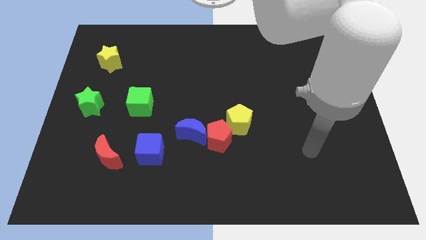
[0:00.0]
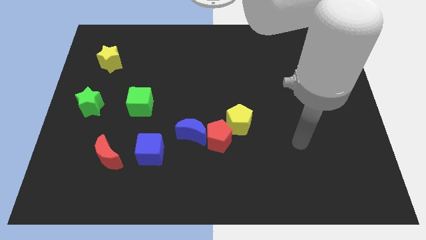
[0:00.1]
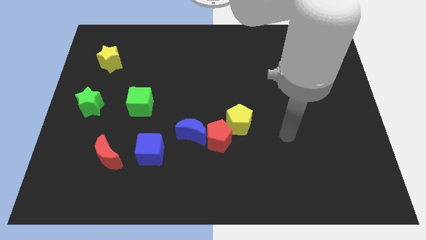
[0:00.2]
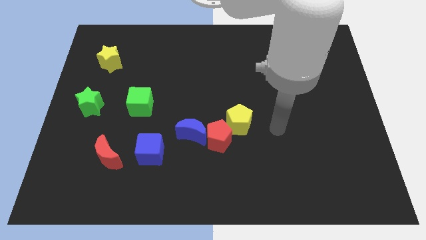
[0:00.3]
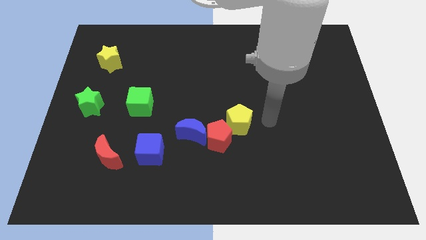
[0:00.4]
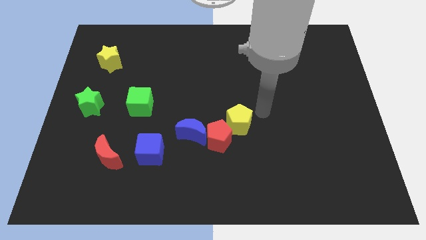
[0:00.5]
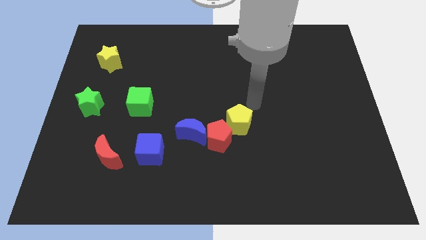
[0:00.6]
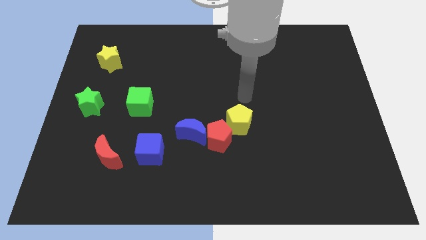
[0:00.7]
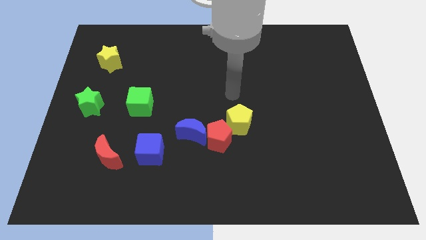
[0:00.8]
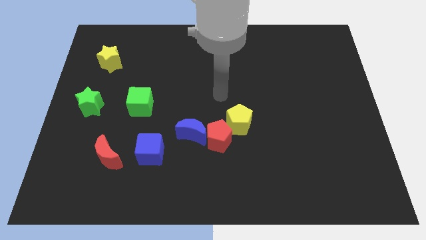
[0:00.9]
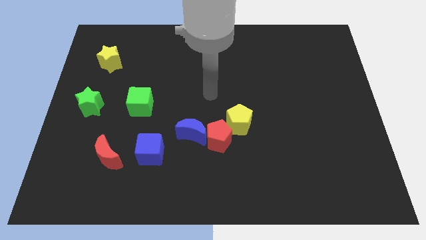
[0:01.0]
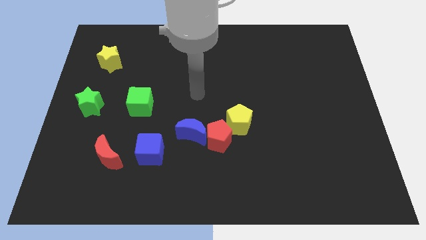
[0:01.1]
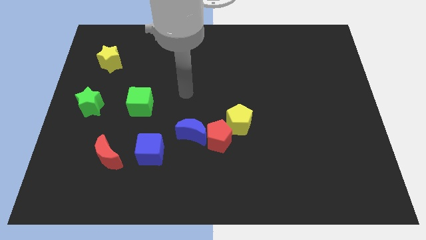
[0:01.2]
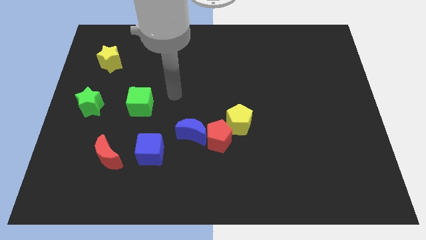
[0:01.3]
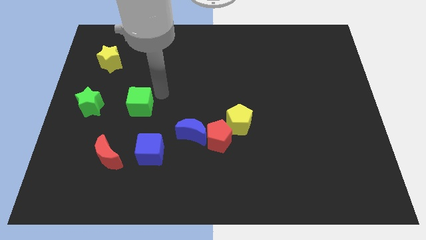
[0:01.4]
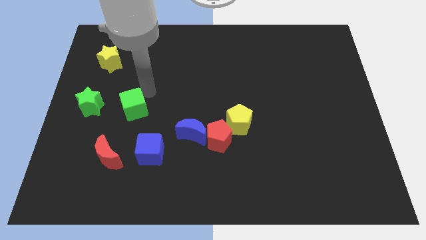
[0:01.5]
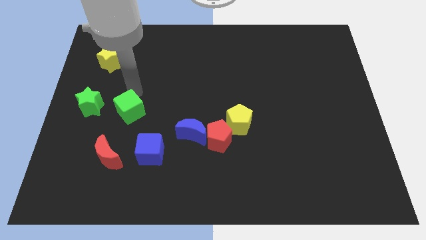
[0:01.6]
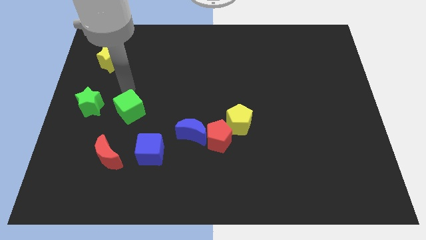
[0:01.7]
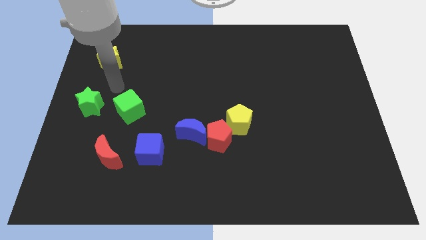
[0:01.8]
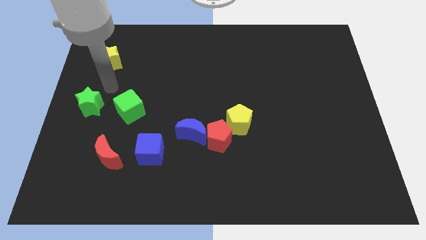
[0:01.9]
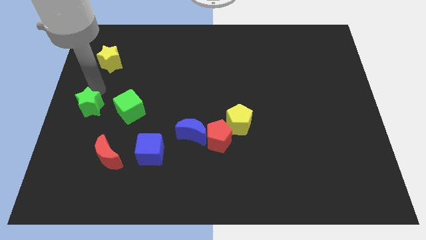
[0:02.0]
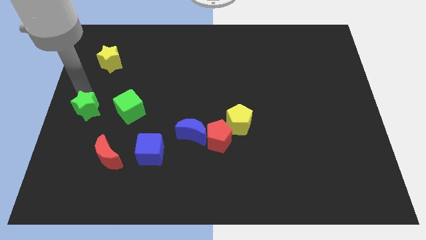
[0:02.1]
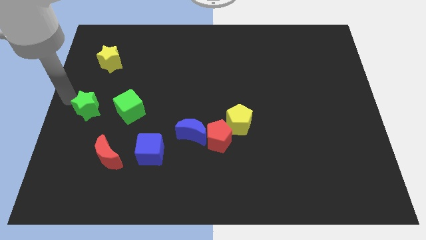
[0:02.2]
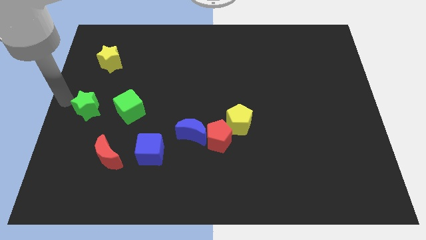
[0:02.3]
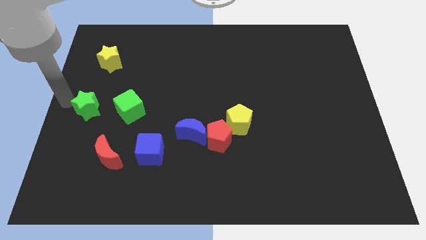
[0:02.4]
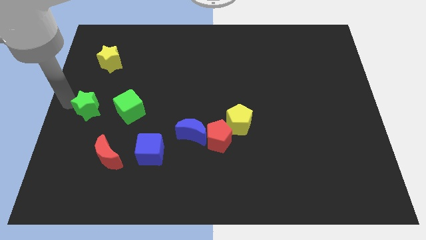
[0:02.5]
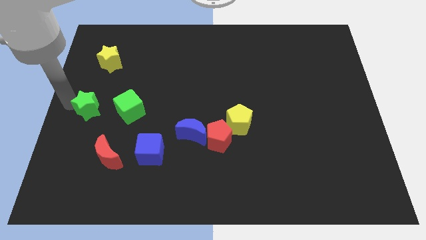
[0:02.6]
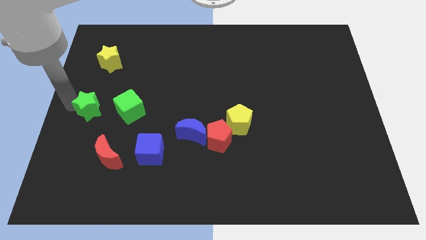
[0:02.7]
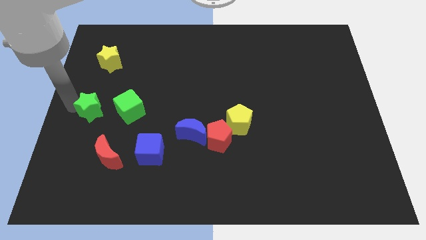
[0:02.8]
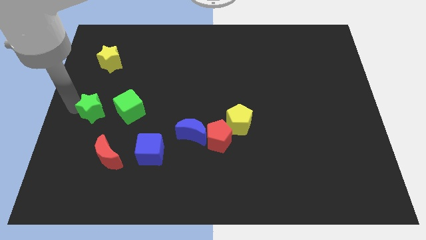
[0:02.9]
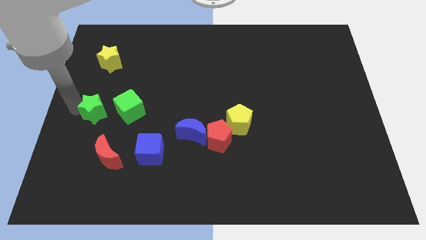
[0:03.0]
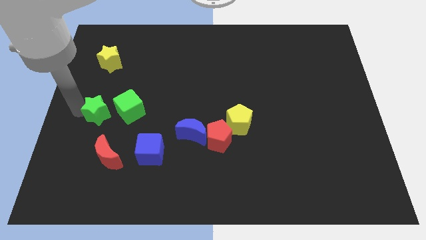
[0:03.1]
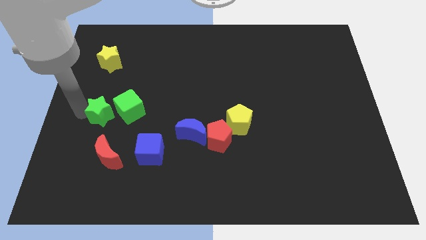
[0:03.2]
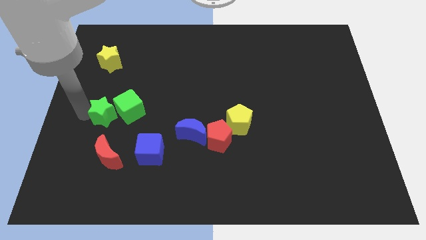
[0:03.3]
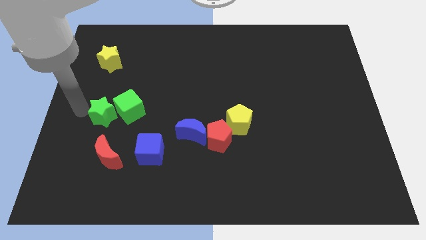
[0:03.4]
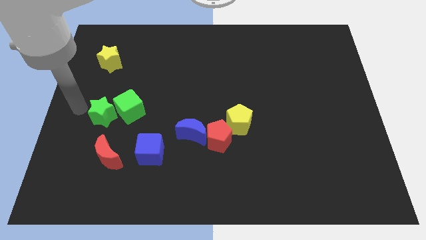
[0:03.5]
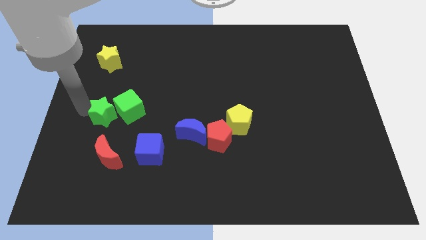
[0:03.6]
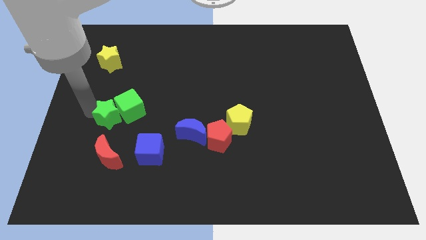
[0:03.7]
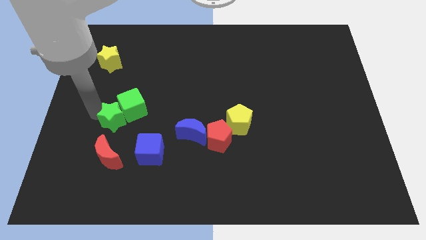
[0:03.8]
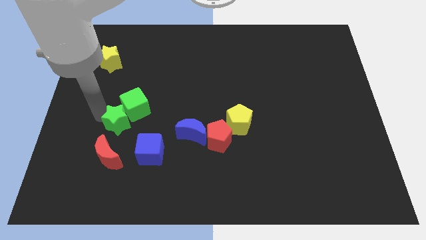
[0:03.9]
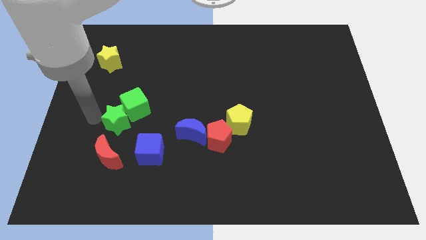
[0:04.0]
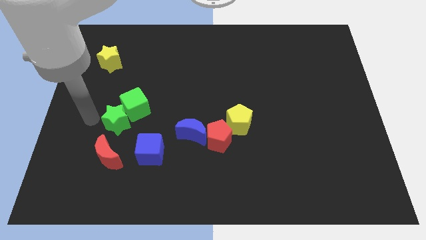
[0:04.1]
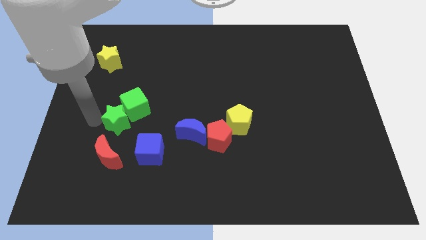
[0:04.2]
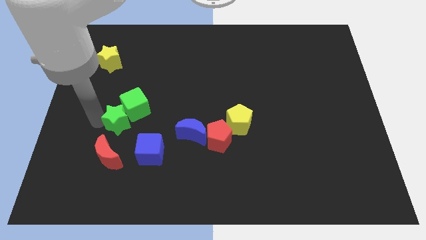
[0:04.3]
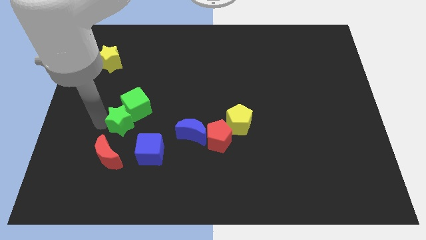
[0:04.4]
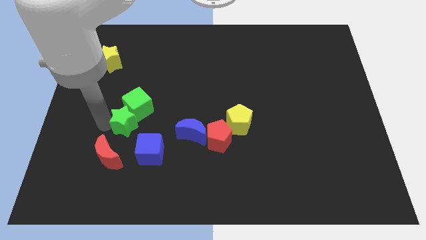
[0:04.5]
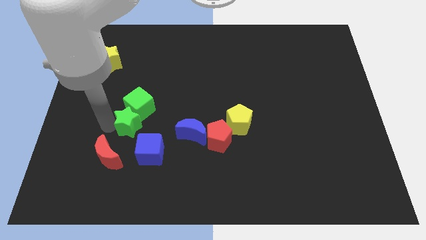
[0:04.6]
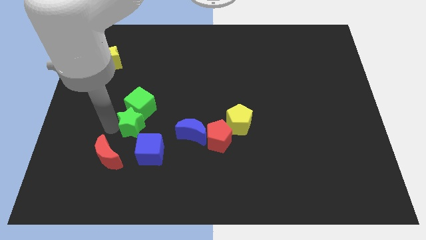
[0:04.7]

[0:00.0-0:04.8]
slide the green star to the bottom right of the green cube

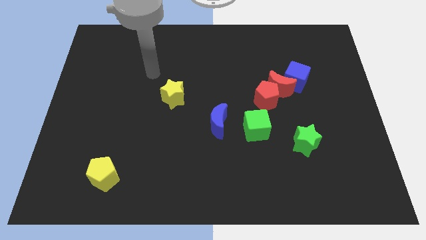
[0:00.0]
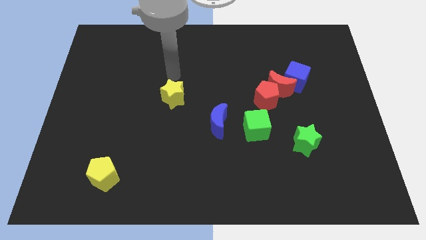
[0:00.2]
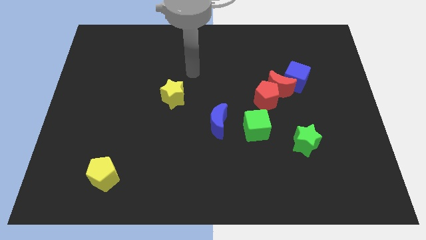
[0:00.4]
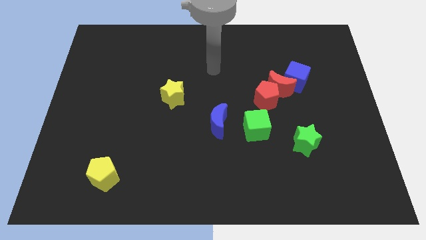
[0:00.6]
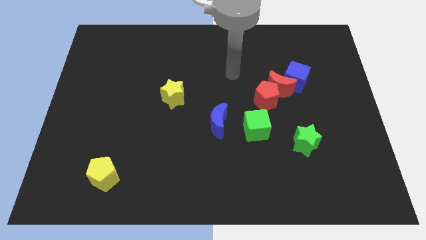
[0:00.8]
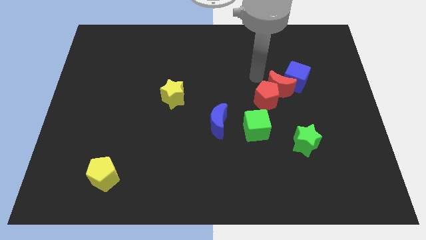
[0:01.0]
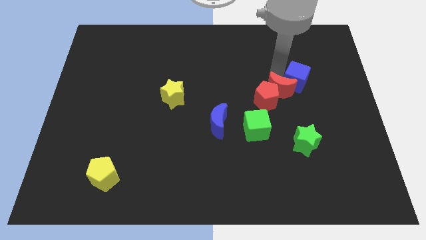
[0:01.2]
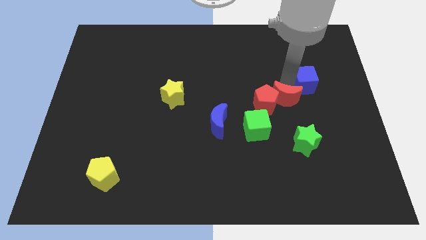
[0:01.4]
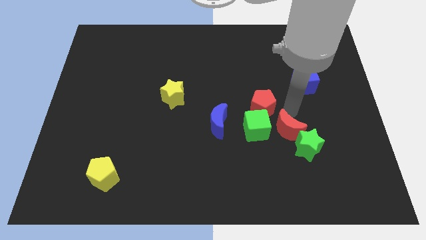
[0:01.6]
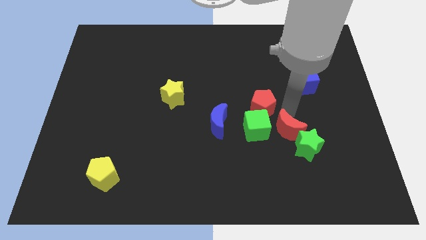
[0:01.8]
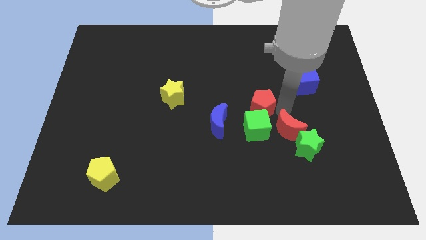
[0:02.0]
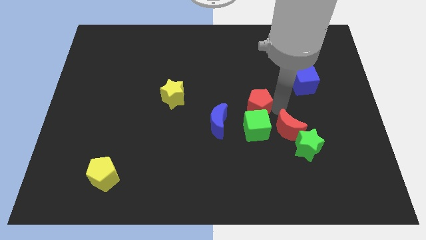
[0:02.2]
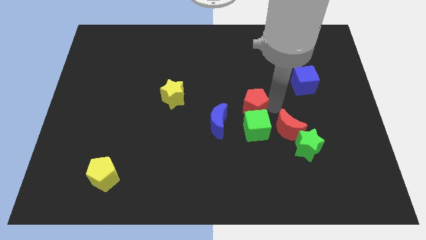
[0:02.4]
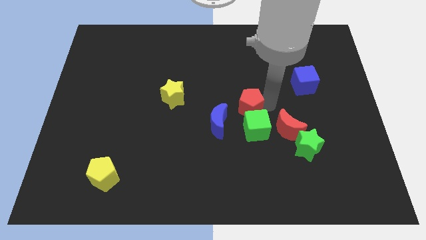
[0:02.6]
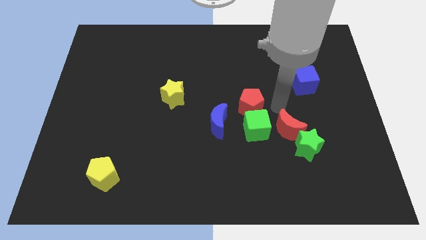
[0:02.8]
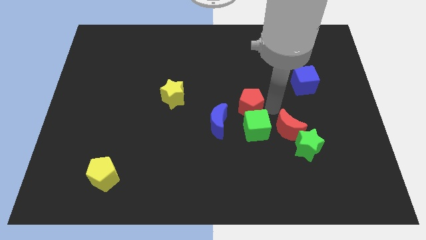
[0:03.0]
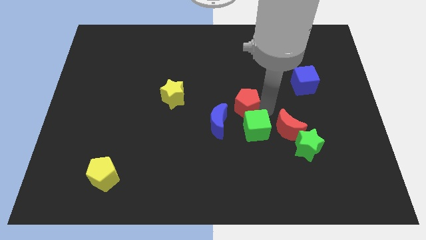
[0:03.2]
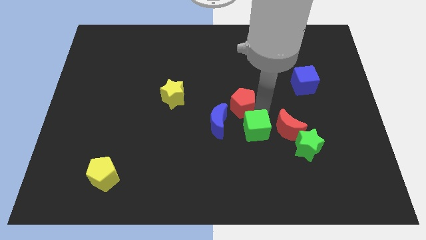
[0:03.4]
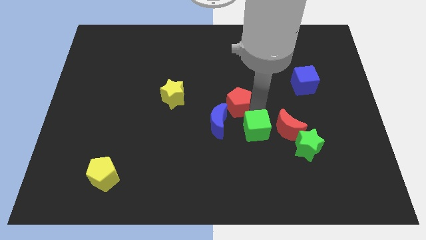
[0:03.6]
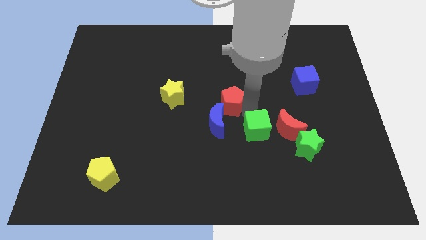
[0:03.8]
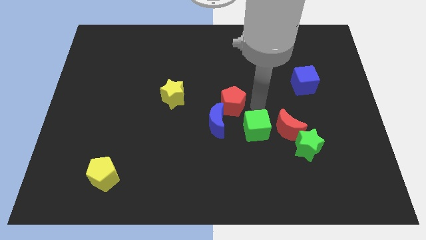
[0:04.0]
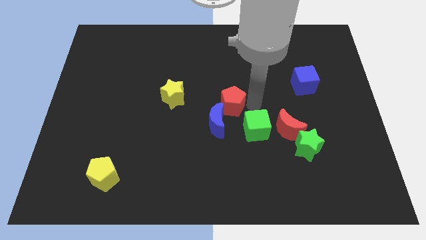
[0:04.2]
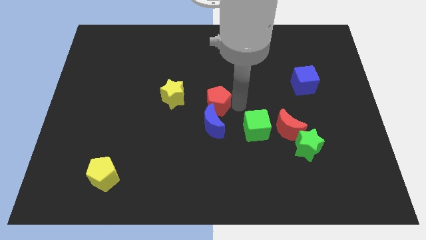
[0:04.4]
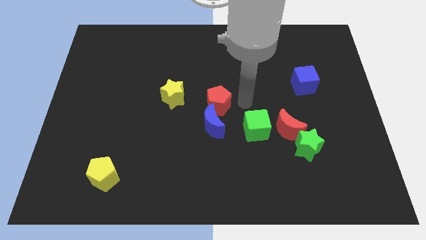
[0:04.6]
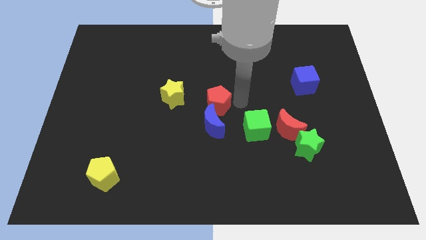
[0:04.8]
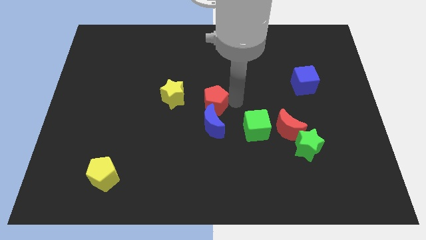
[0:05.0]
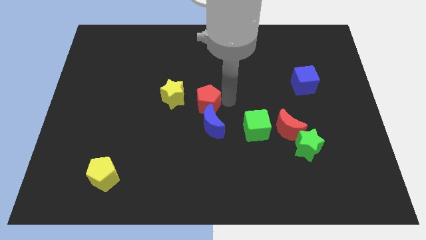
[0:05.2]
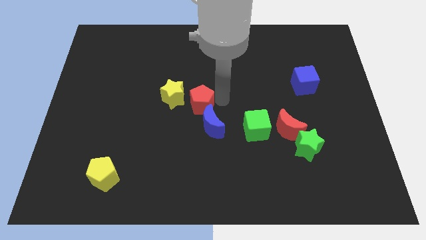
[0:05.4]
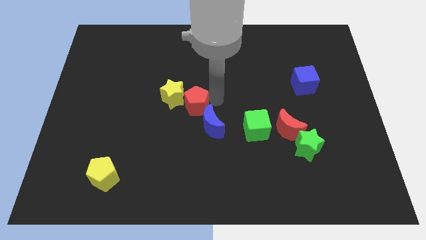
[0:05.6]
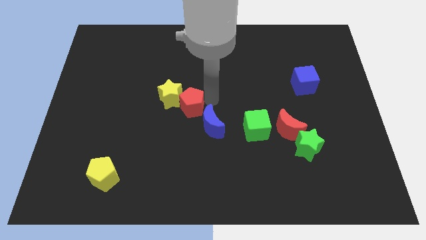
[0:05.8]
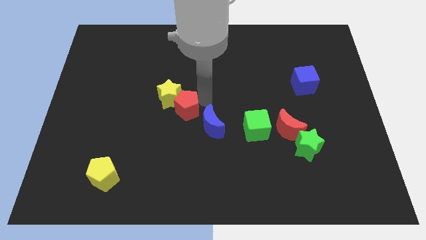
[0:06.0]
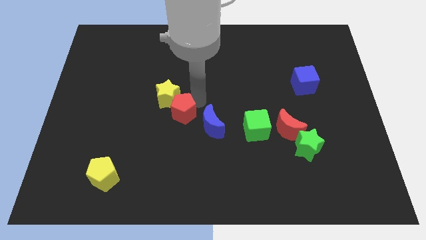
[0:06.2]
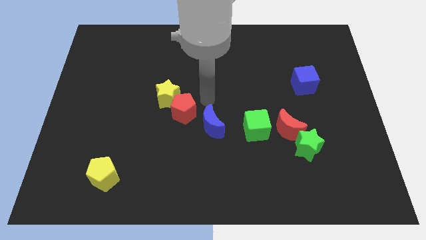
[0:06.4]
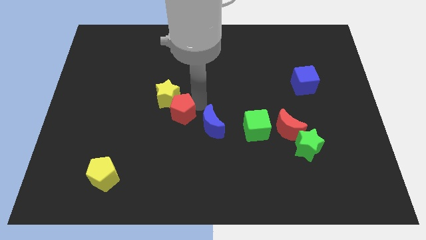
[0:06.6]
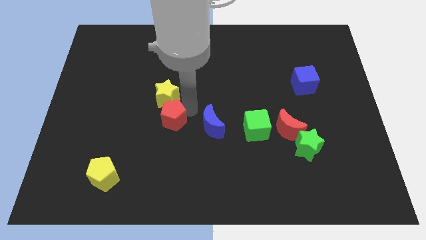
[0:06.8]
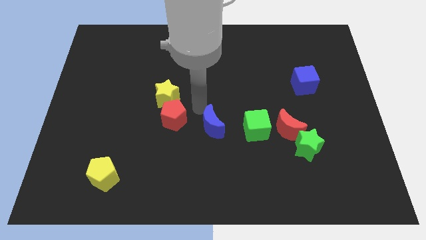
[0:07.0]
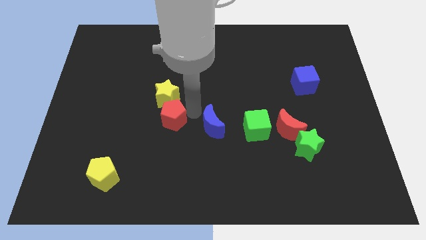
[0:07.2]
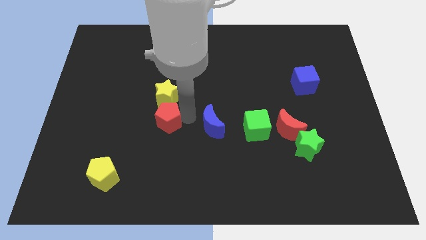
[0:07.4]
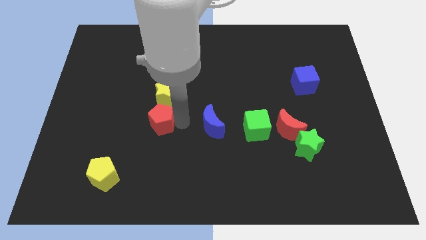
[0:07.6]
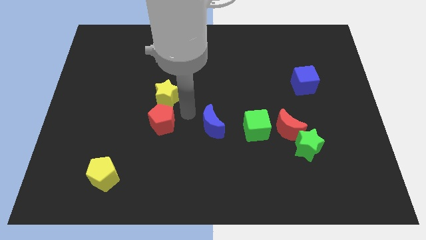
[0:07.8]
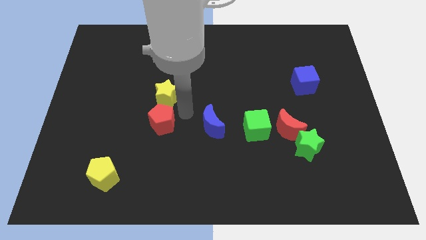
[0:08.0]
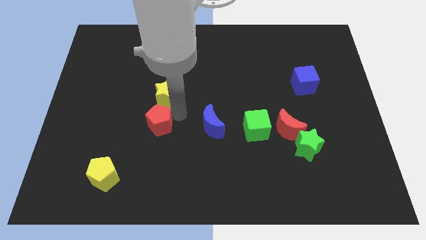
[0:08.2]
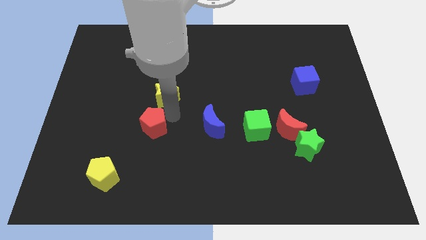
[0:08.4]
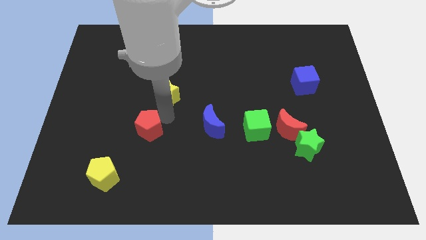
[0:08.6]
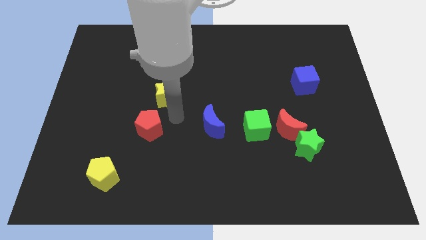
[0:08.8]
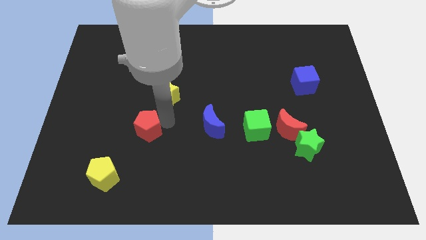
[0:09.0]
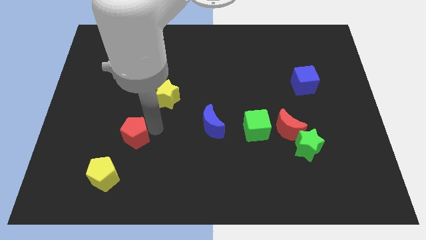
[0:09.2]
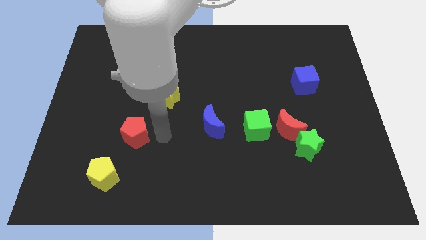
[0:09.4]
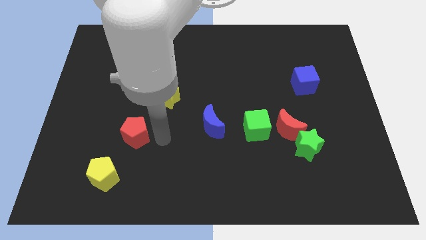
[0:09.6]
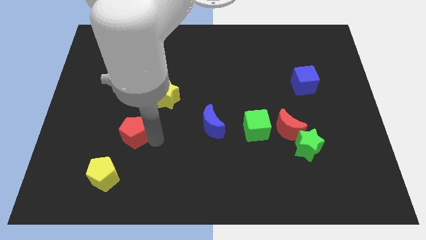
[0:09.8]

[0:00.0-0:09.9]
put the red pentagon to the top side of the yellow pentagon
